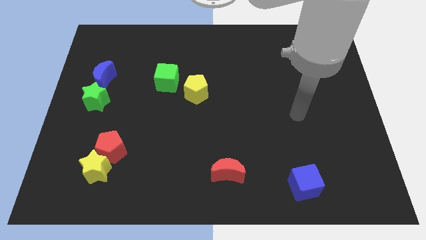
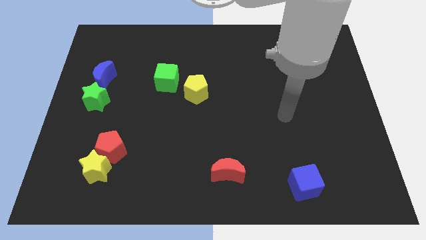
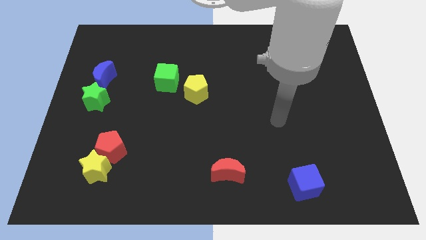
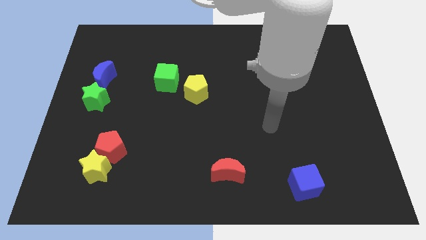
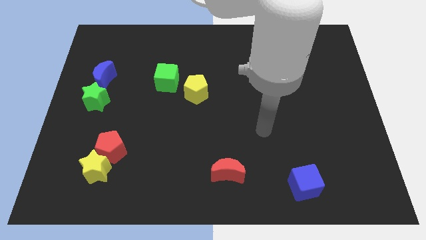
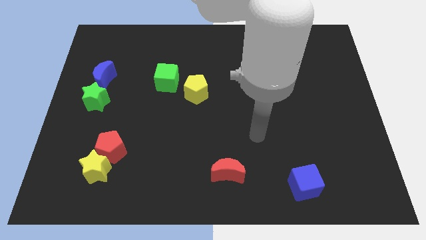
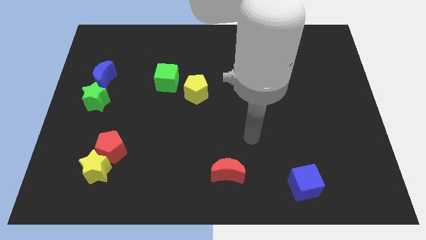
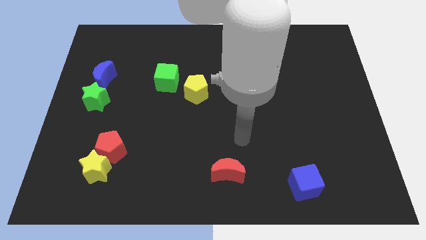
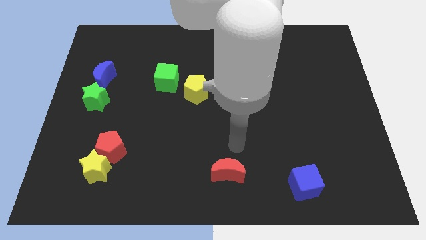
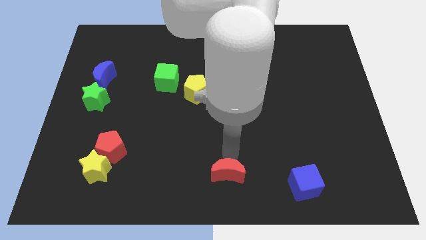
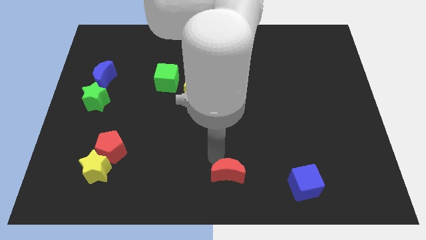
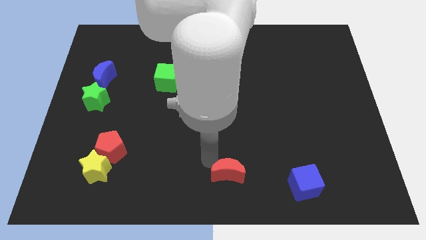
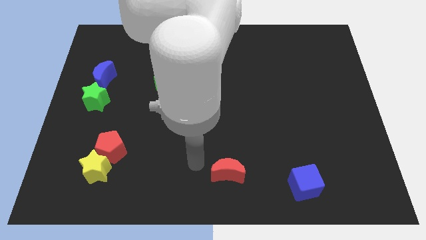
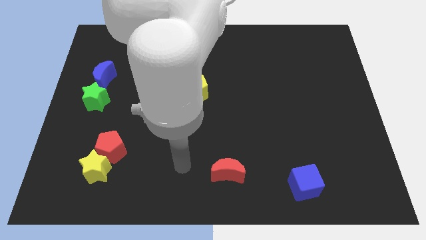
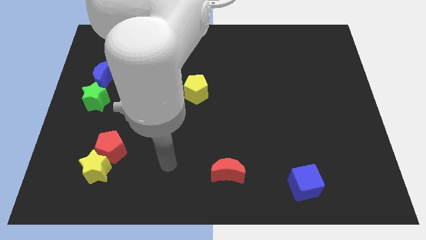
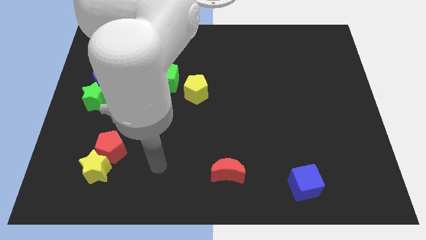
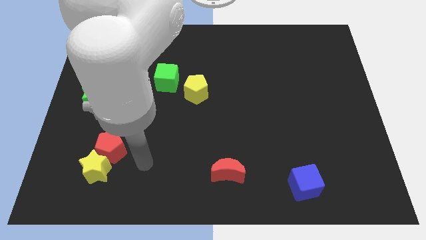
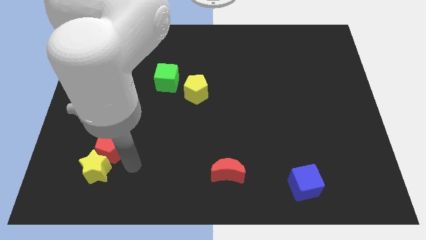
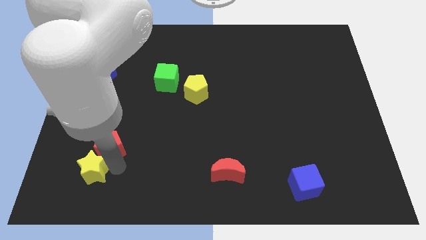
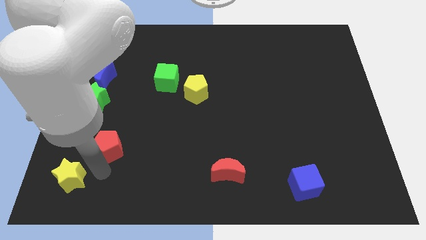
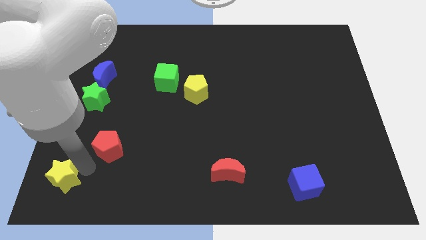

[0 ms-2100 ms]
pull the red pentagon apart from the yellow star

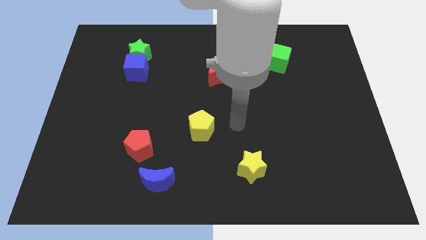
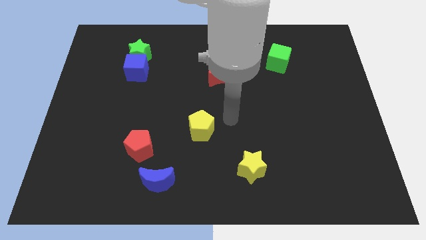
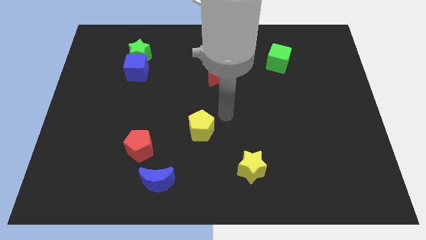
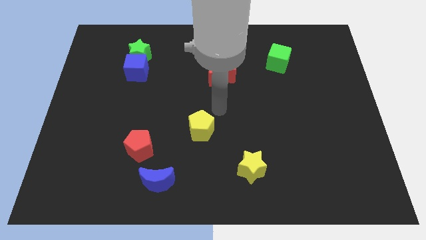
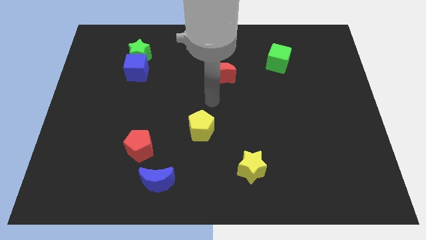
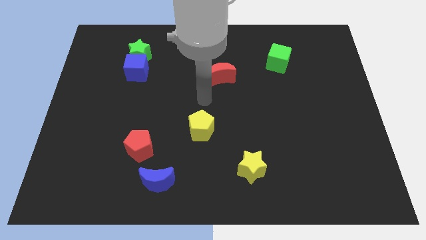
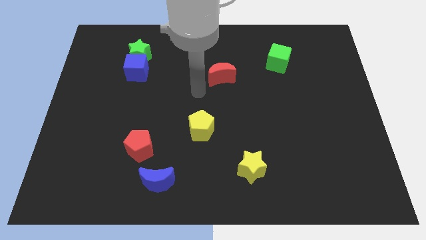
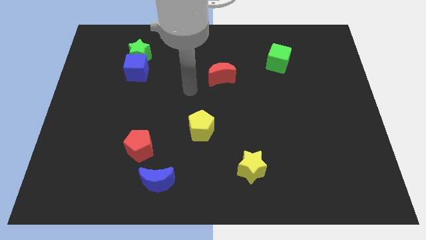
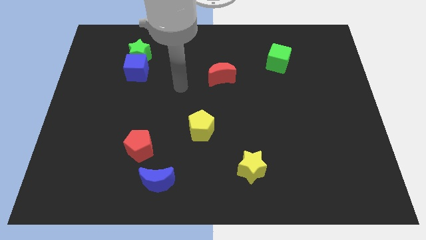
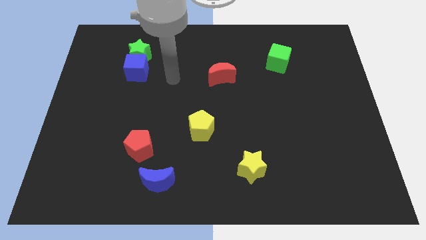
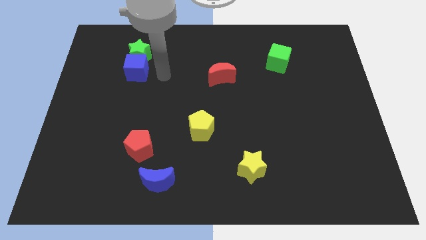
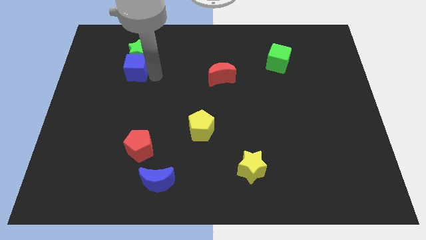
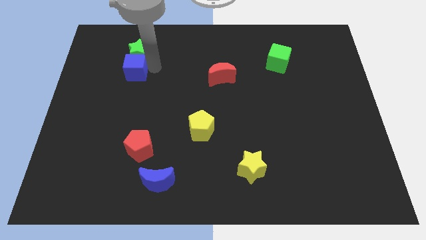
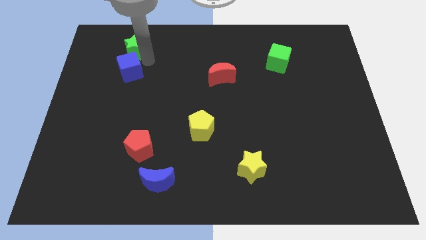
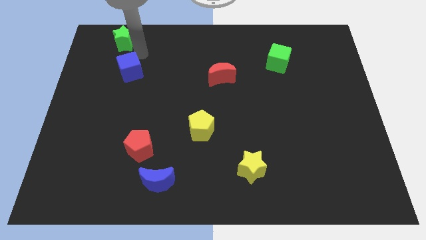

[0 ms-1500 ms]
separate the blue cube from the green star

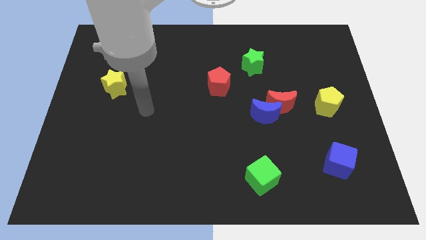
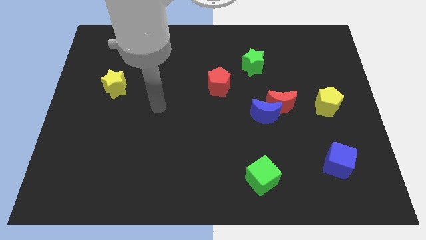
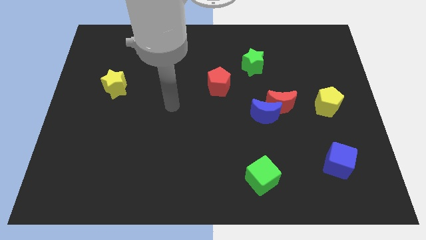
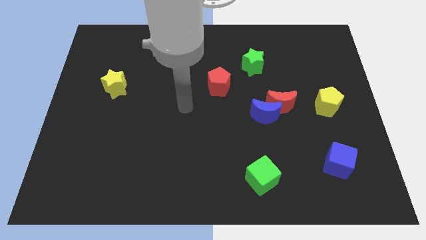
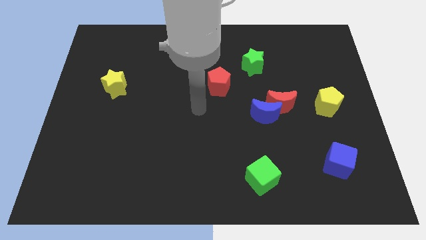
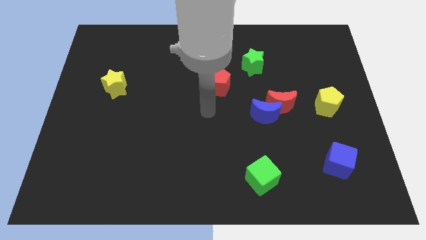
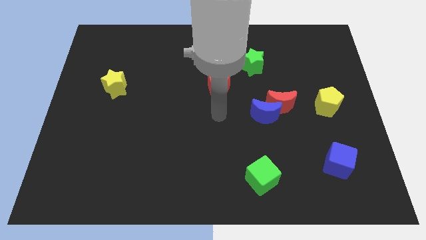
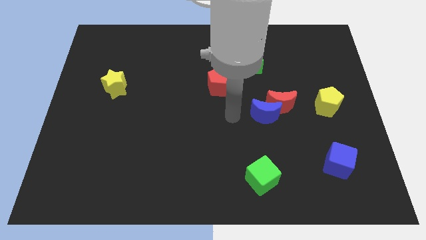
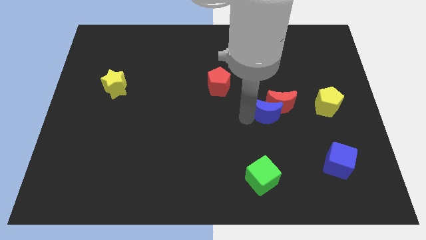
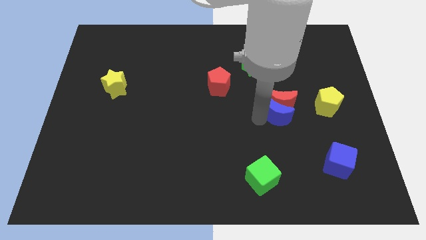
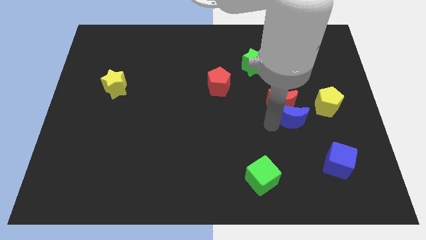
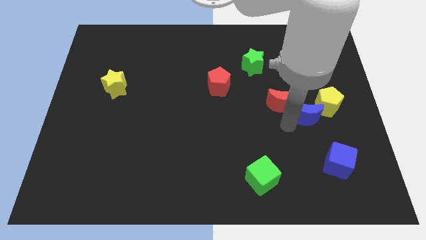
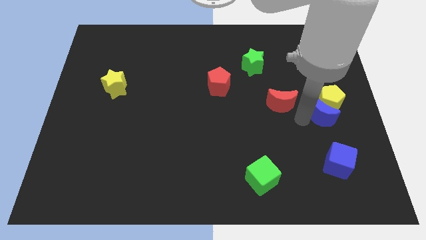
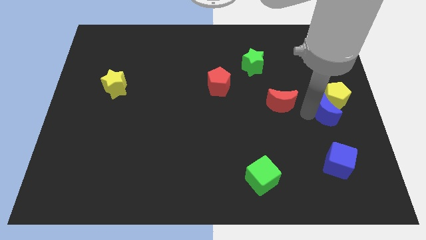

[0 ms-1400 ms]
pull the red moon apart from the blue moon

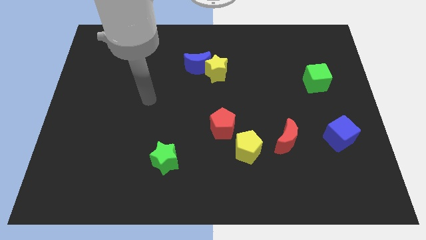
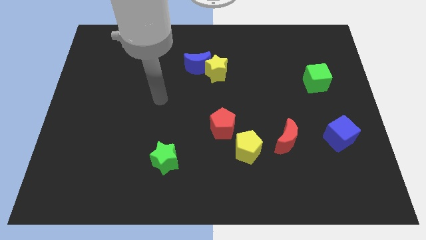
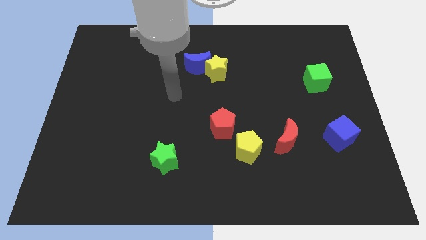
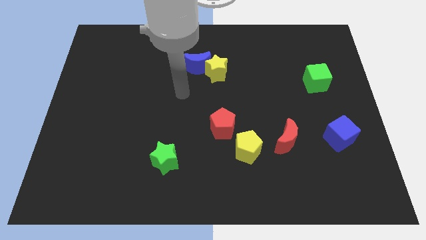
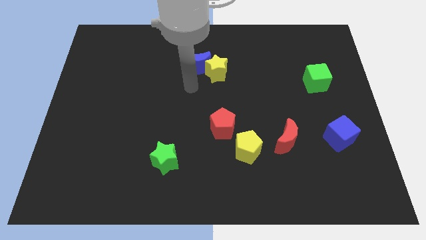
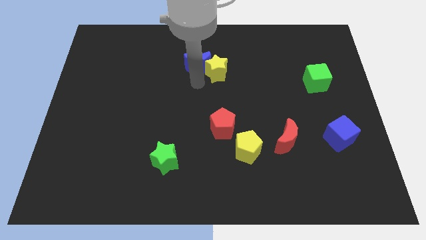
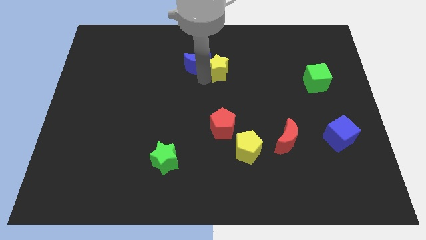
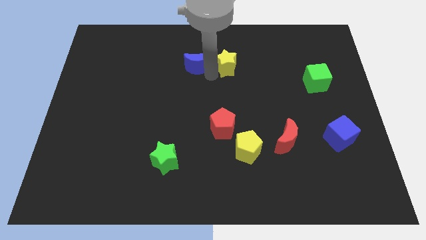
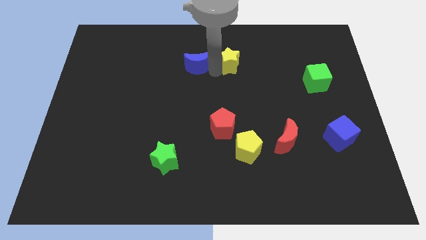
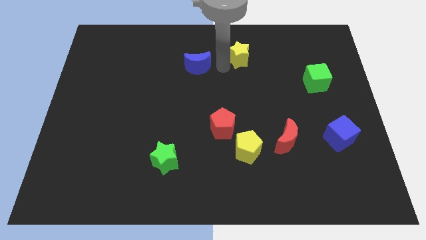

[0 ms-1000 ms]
pull the blue moon apart from the yellow star

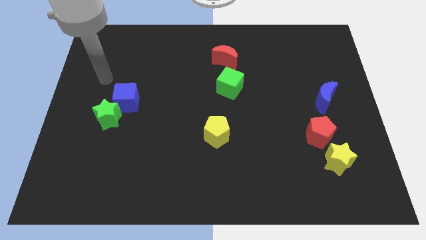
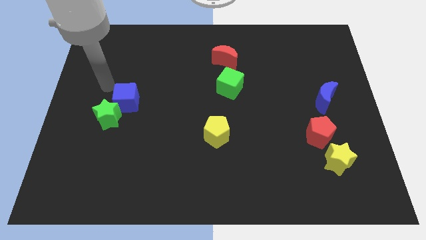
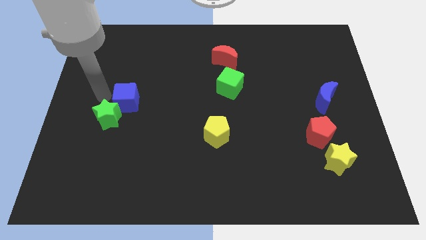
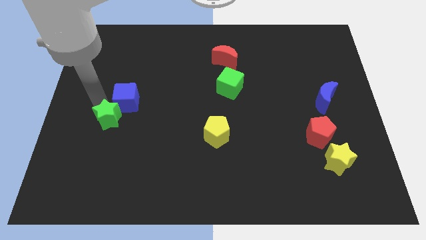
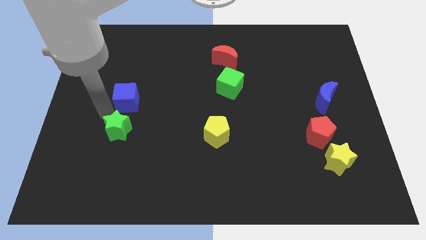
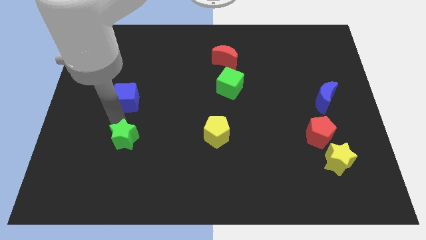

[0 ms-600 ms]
move the blue cube away from the green star

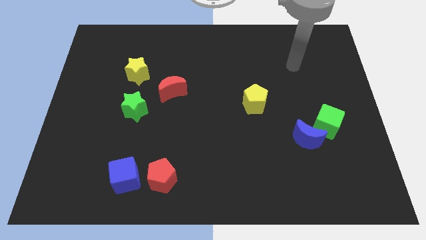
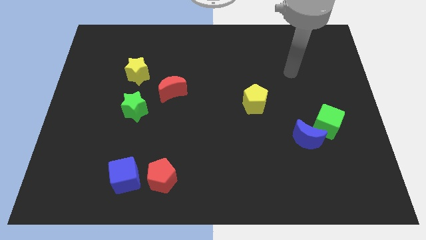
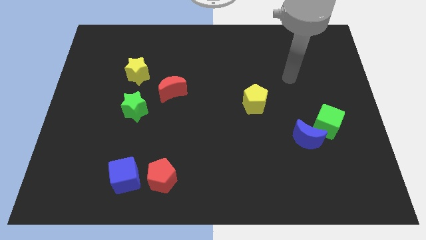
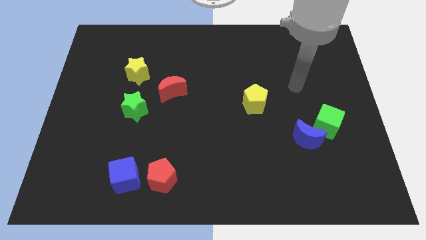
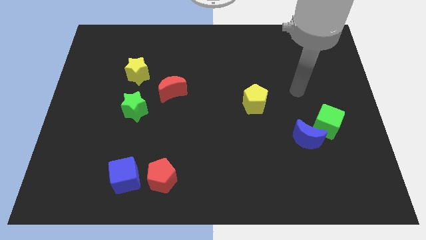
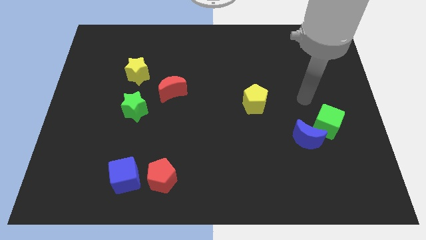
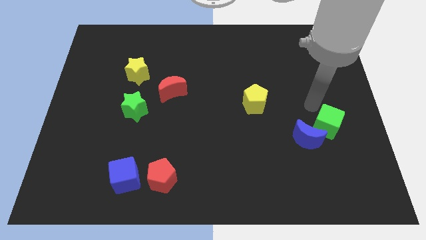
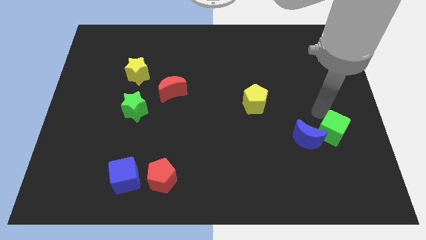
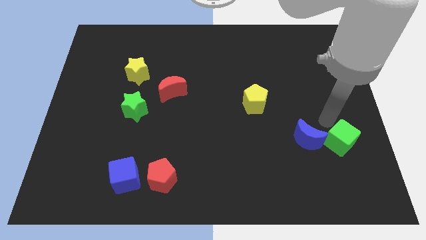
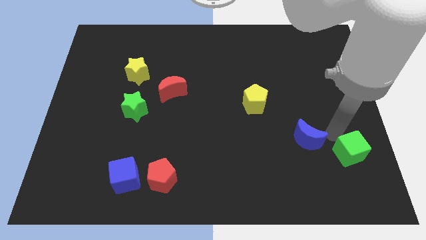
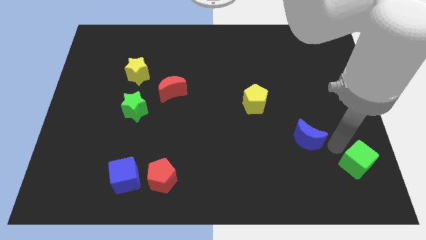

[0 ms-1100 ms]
separate the blue moon from the green cube

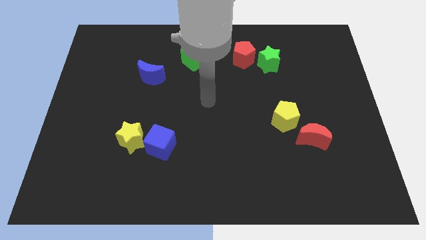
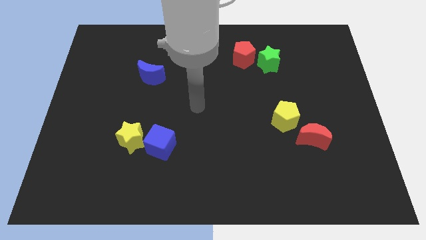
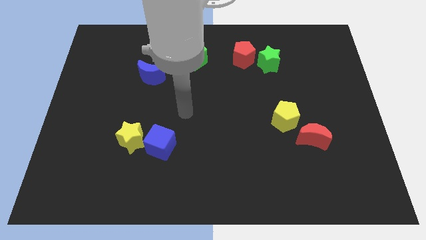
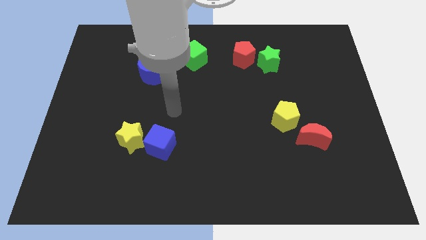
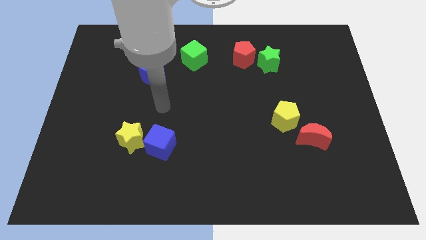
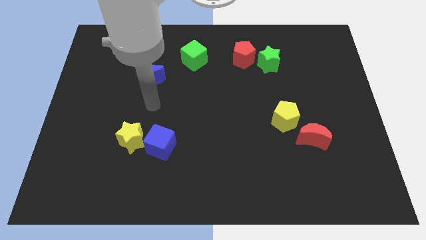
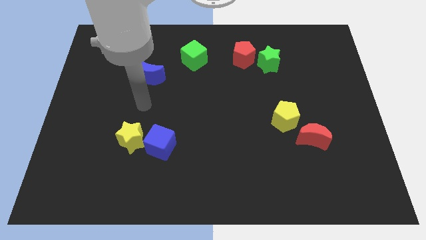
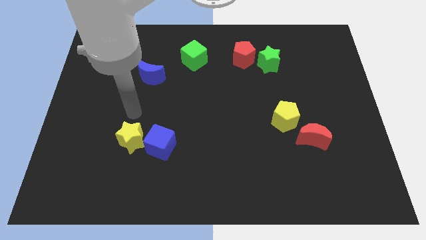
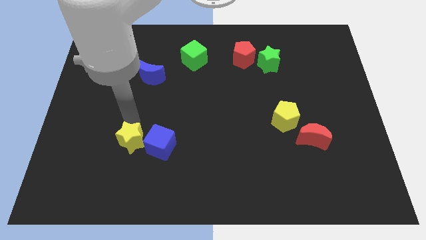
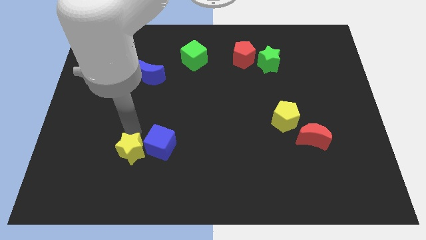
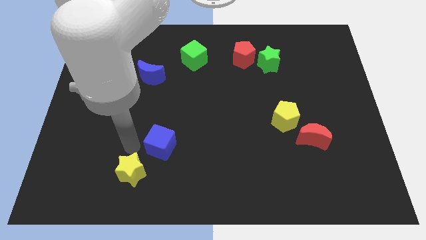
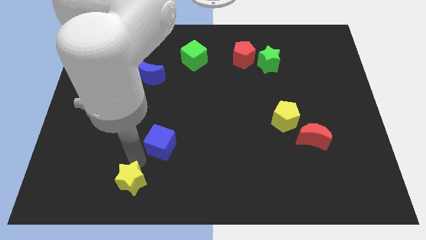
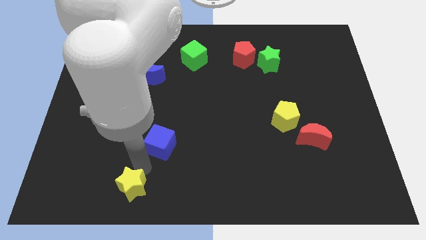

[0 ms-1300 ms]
move the blue cube away from the yellow star

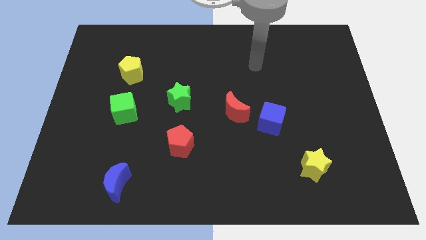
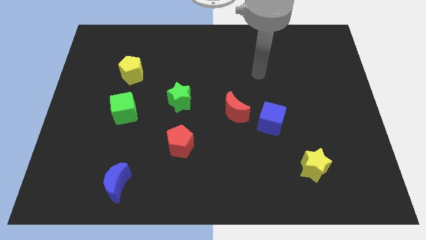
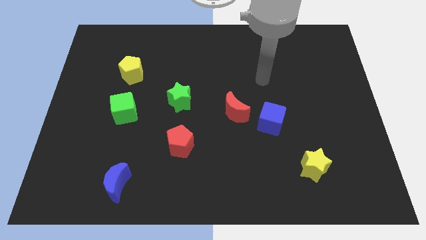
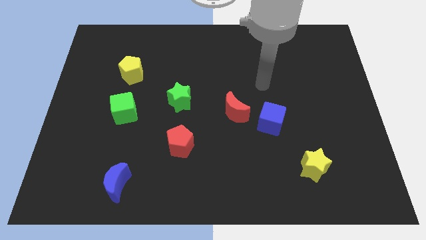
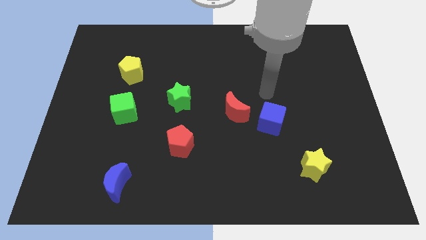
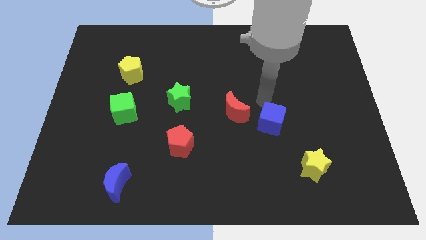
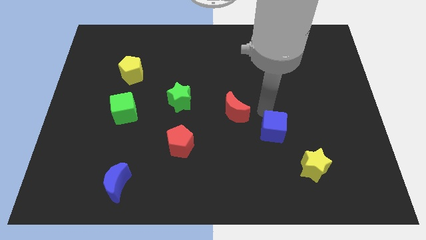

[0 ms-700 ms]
move the red moon away from the blue cube
